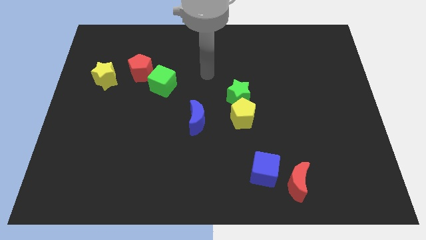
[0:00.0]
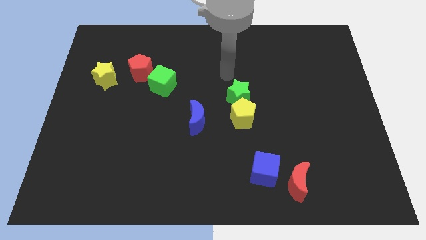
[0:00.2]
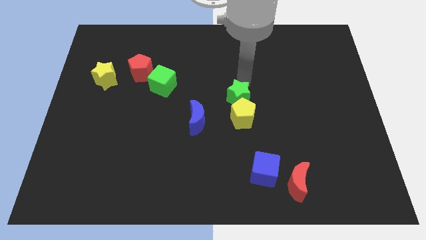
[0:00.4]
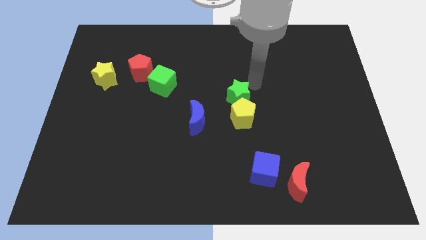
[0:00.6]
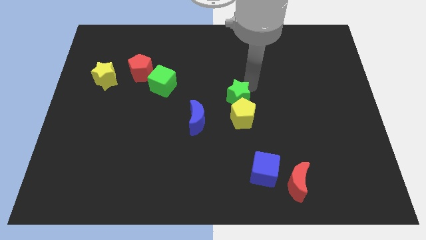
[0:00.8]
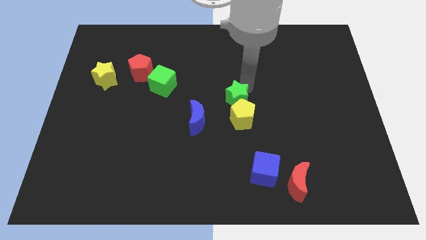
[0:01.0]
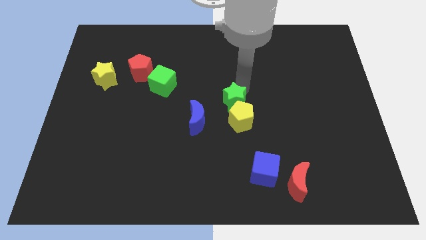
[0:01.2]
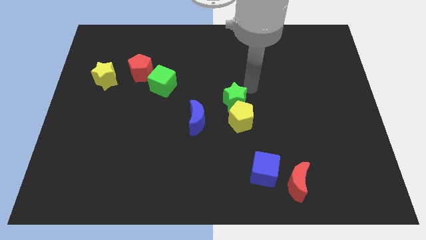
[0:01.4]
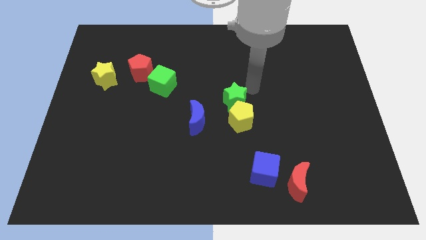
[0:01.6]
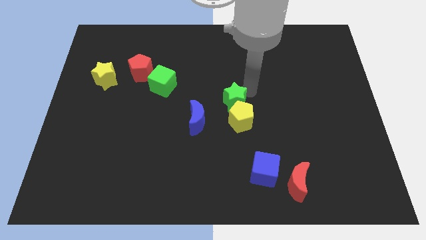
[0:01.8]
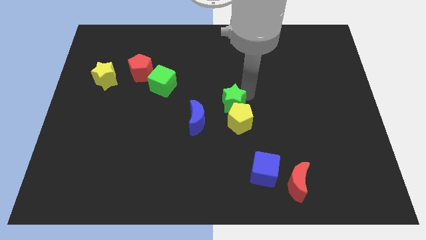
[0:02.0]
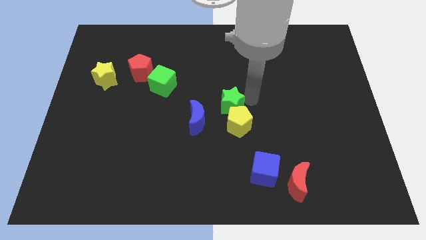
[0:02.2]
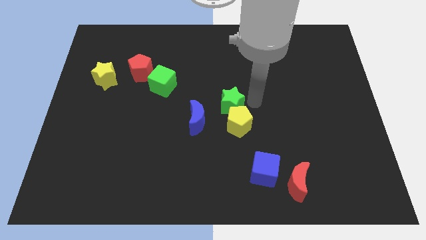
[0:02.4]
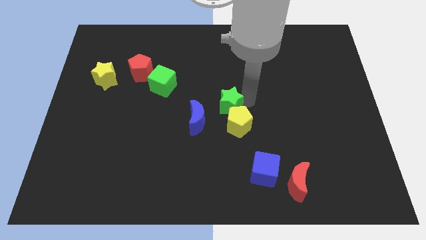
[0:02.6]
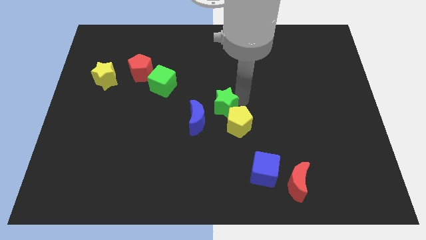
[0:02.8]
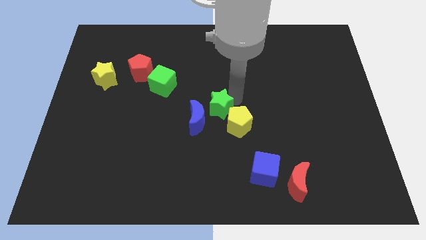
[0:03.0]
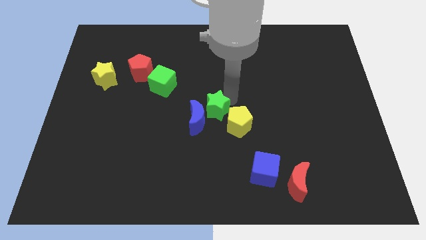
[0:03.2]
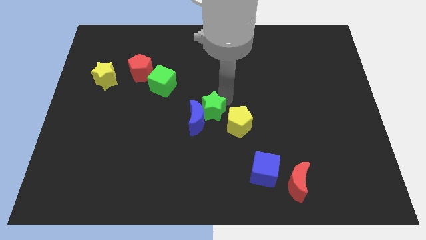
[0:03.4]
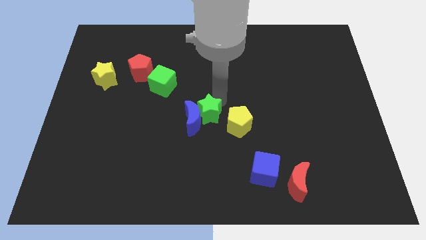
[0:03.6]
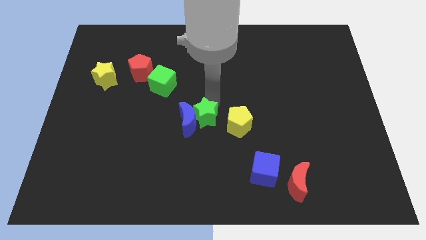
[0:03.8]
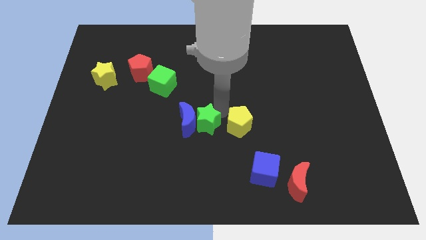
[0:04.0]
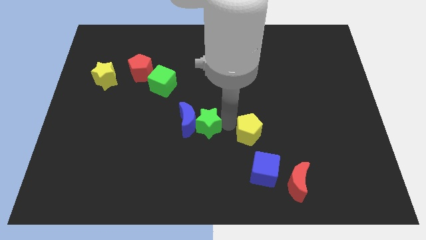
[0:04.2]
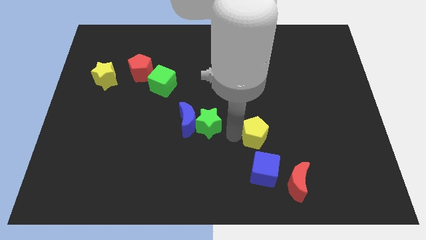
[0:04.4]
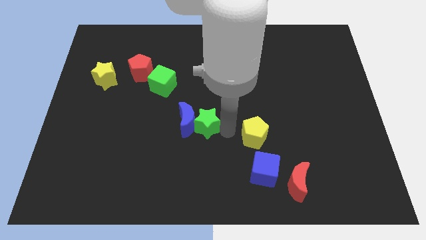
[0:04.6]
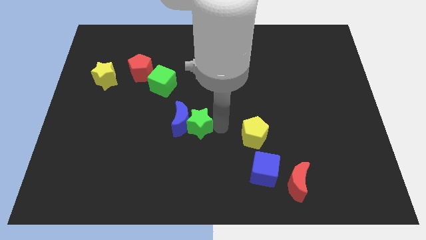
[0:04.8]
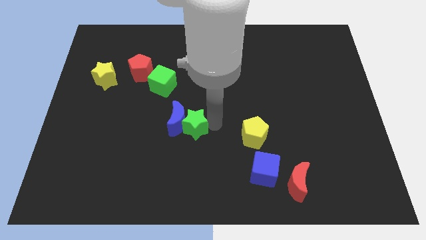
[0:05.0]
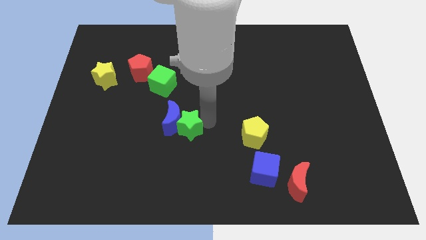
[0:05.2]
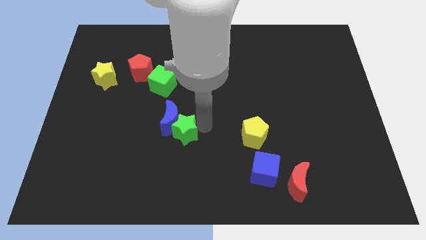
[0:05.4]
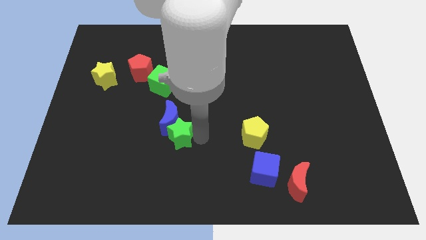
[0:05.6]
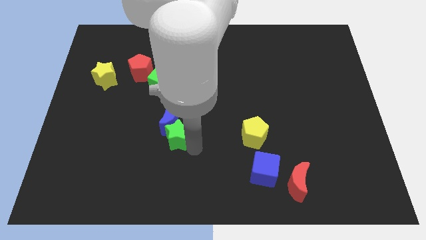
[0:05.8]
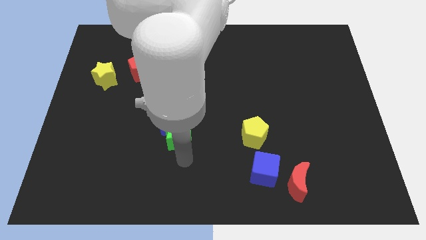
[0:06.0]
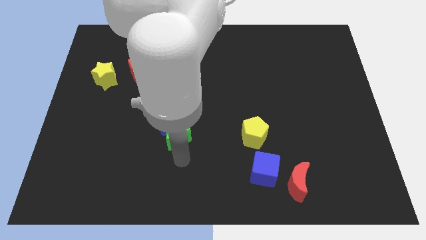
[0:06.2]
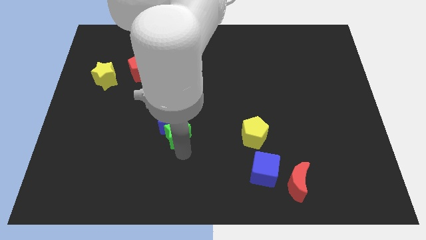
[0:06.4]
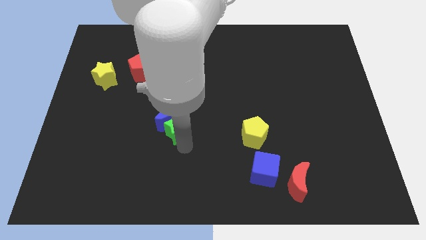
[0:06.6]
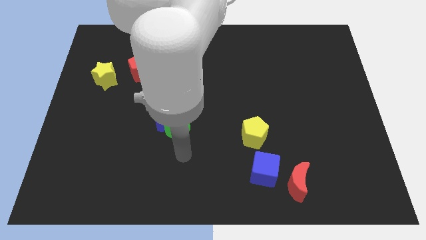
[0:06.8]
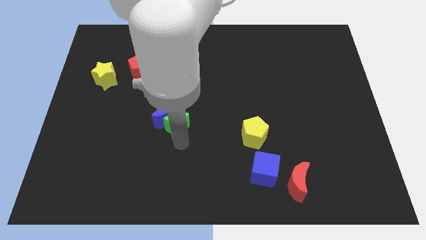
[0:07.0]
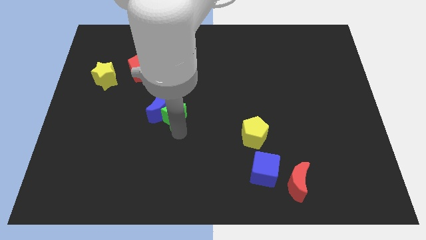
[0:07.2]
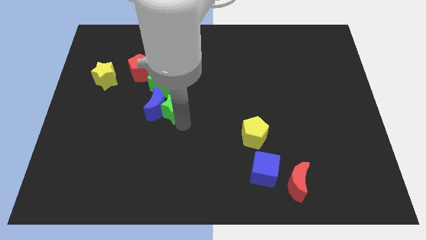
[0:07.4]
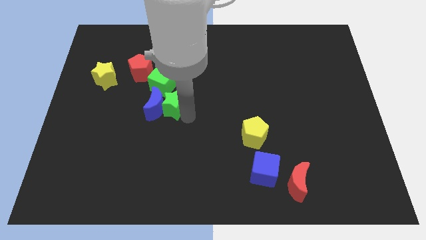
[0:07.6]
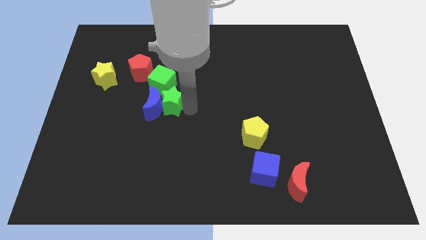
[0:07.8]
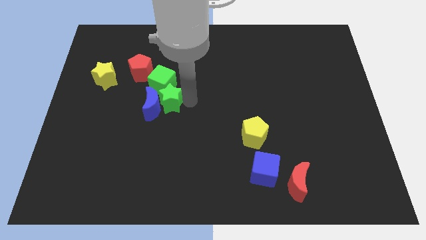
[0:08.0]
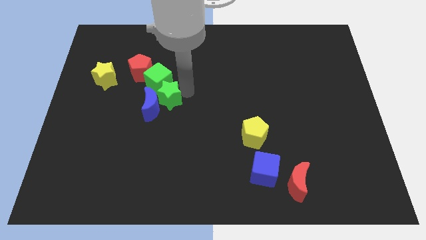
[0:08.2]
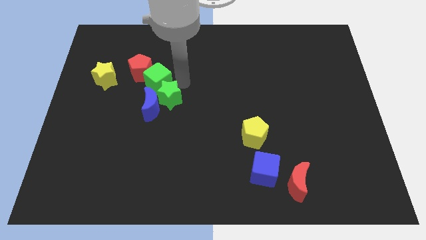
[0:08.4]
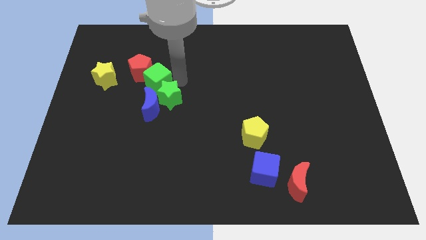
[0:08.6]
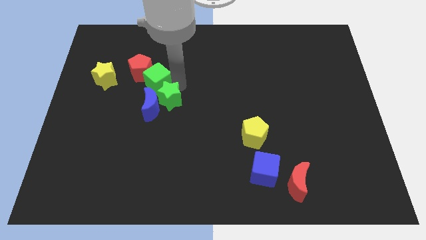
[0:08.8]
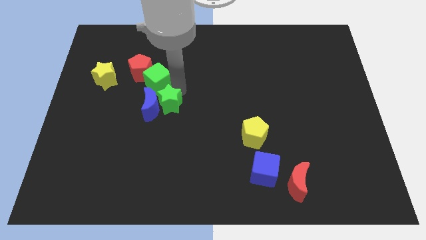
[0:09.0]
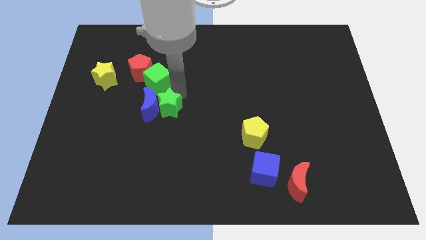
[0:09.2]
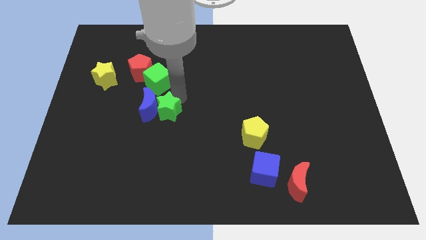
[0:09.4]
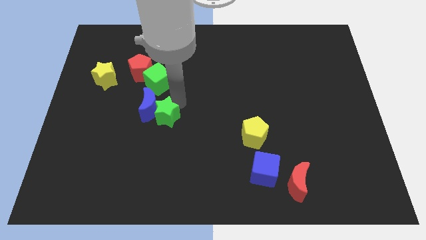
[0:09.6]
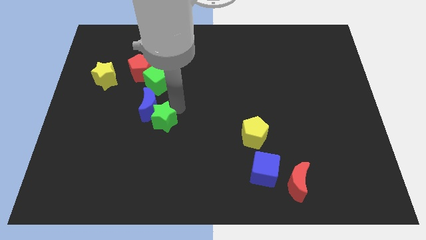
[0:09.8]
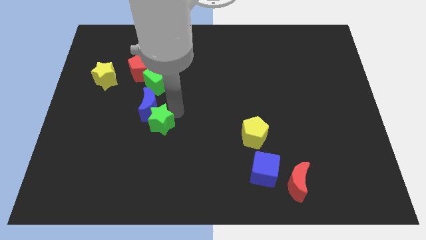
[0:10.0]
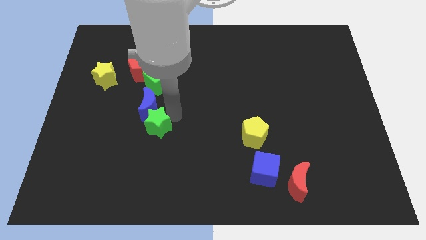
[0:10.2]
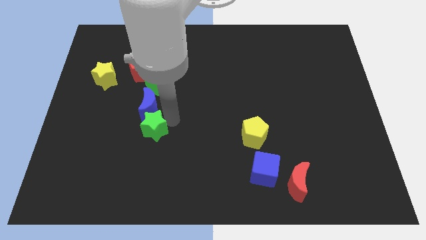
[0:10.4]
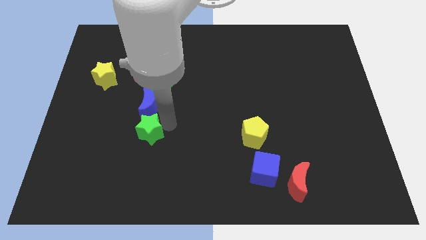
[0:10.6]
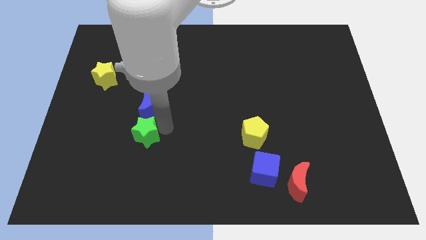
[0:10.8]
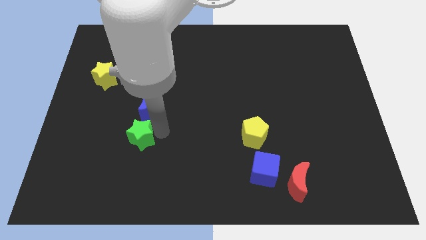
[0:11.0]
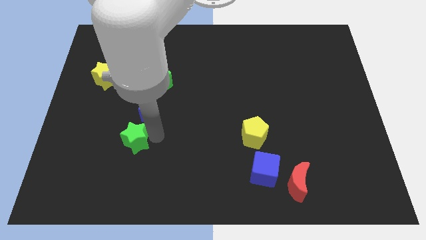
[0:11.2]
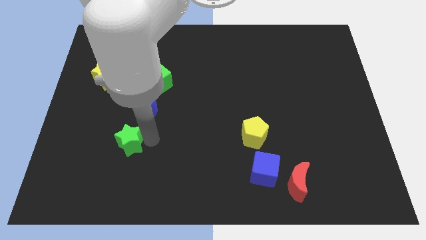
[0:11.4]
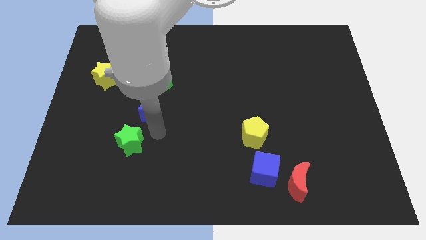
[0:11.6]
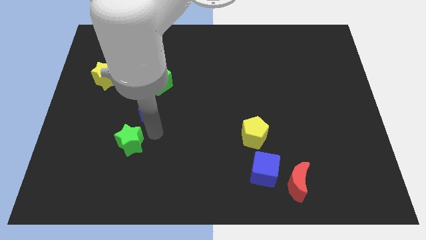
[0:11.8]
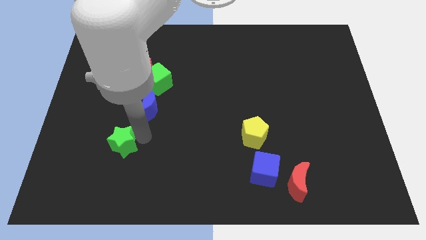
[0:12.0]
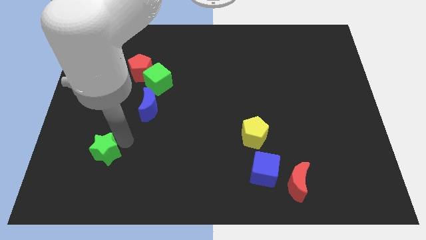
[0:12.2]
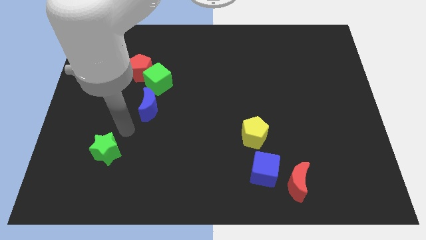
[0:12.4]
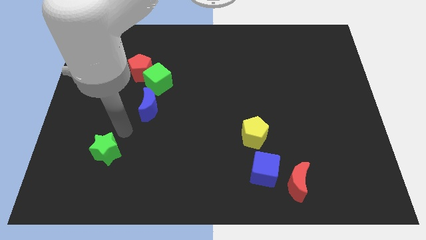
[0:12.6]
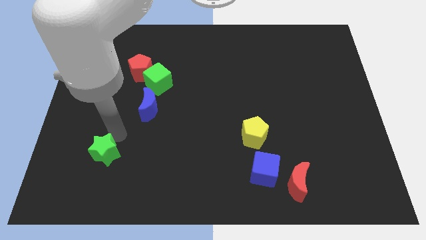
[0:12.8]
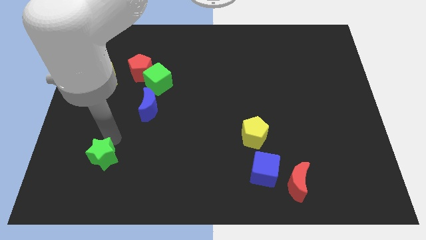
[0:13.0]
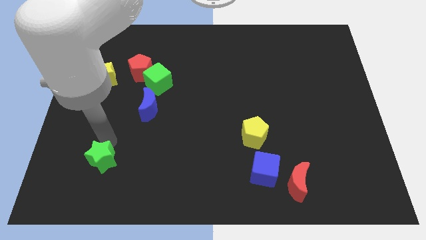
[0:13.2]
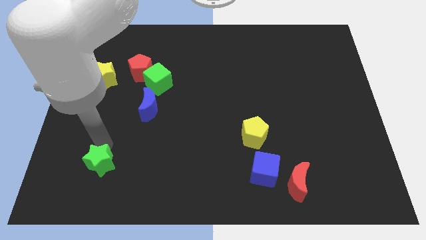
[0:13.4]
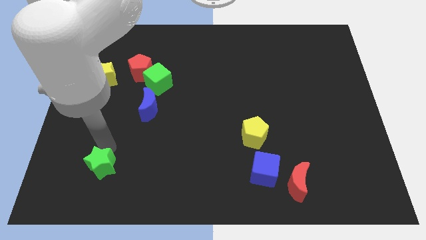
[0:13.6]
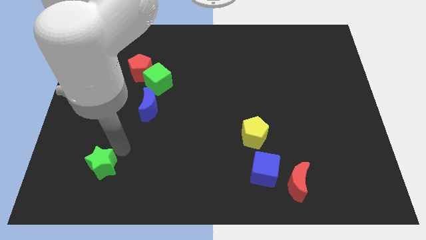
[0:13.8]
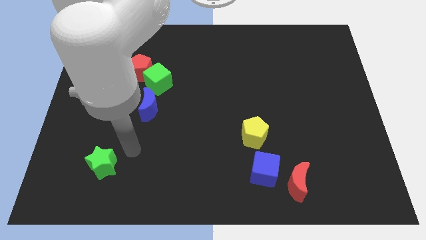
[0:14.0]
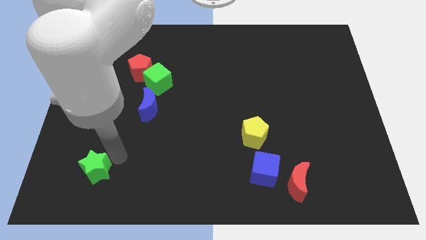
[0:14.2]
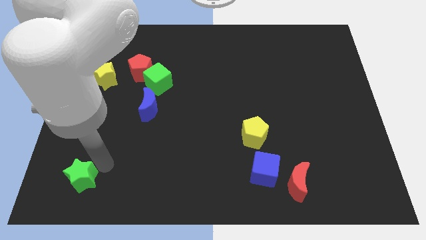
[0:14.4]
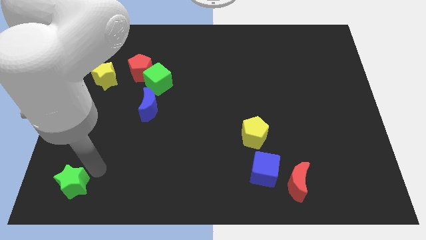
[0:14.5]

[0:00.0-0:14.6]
put the green star to the bottom left
